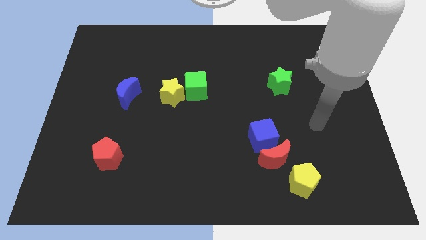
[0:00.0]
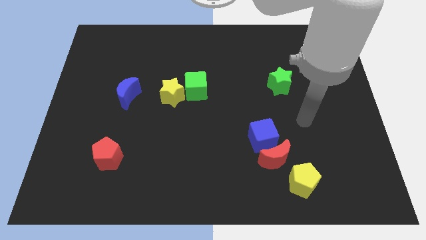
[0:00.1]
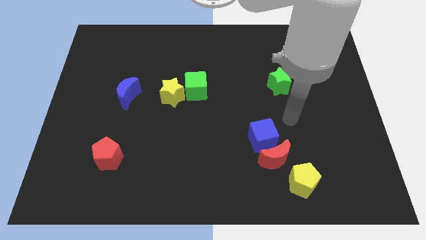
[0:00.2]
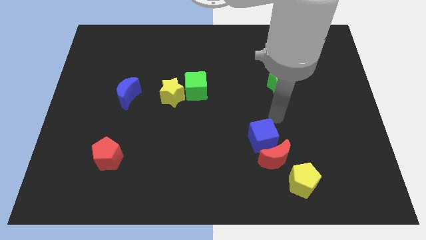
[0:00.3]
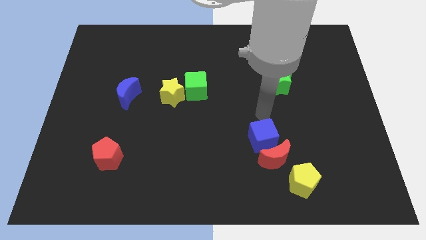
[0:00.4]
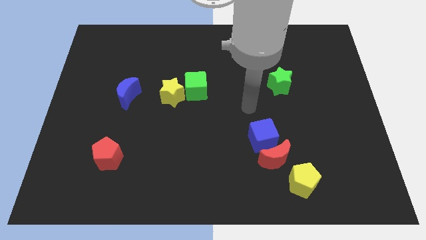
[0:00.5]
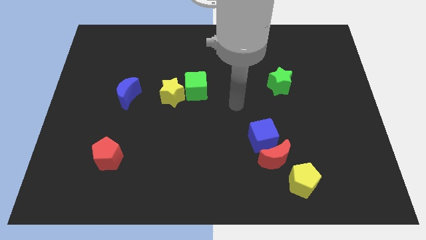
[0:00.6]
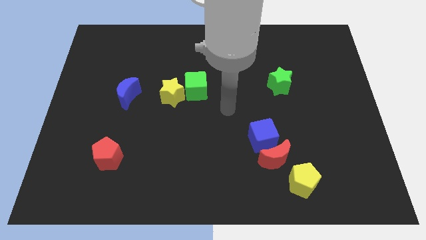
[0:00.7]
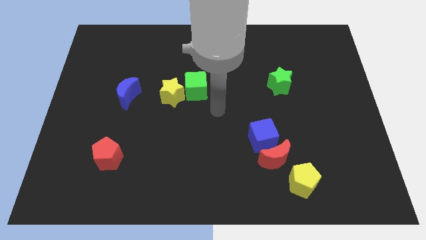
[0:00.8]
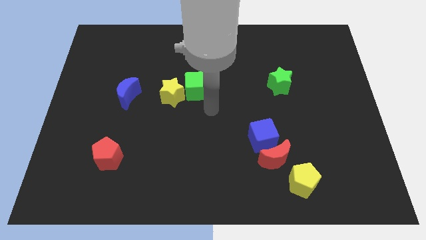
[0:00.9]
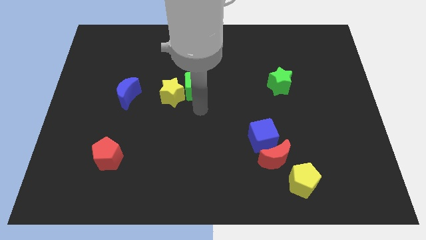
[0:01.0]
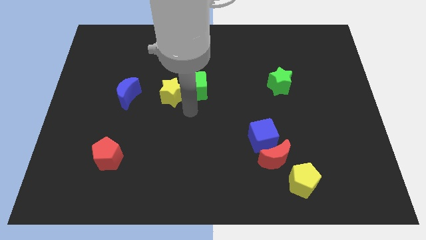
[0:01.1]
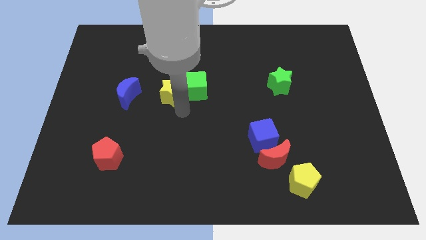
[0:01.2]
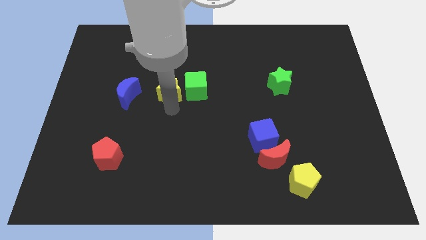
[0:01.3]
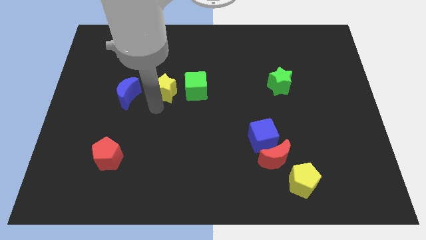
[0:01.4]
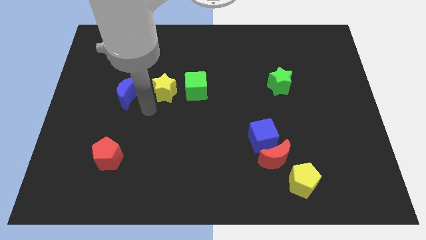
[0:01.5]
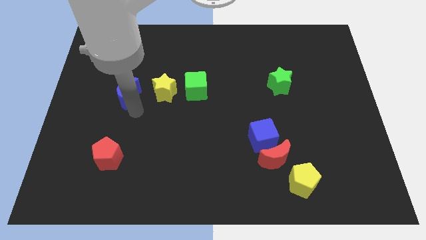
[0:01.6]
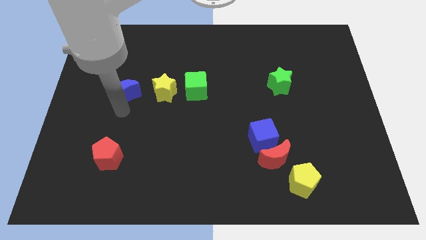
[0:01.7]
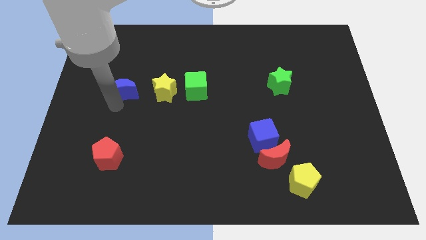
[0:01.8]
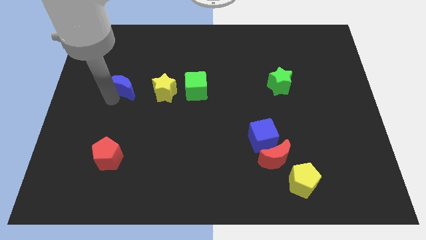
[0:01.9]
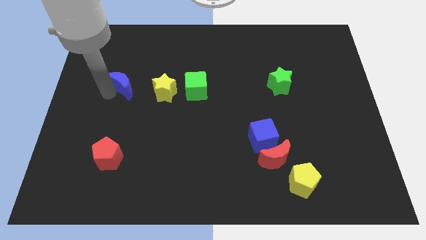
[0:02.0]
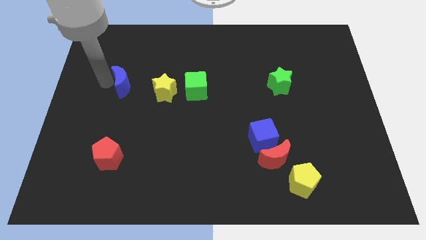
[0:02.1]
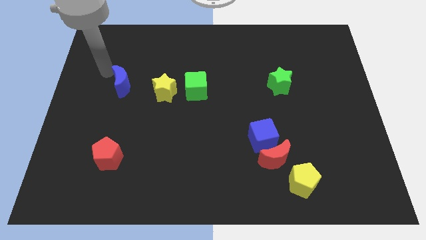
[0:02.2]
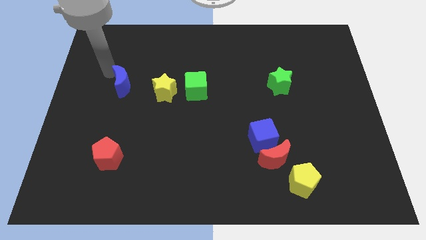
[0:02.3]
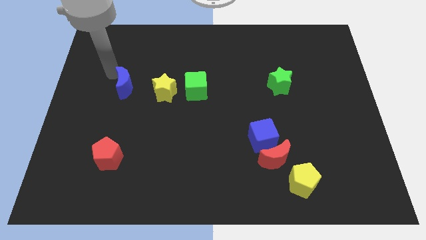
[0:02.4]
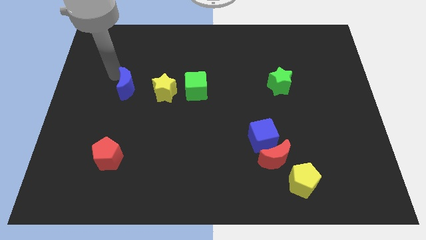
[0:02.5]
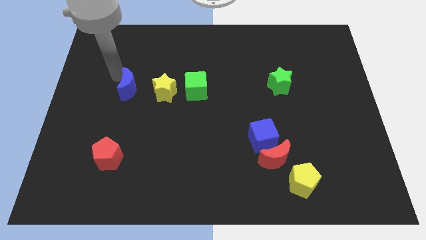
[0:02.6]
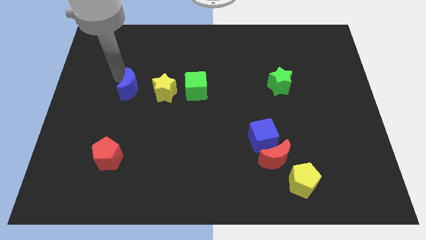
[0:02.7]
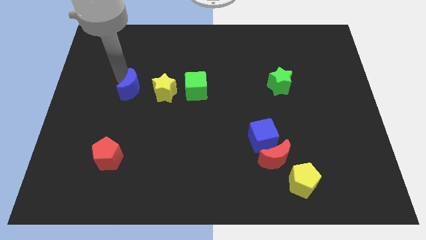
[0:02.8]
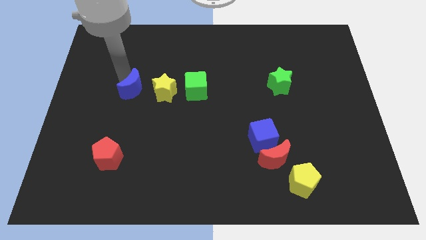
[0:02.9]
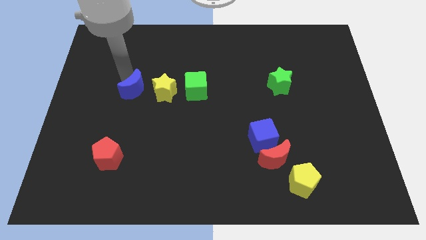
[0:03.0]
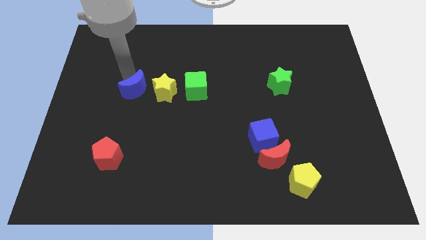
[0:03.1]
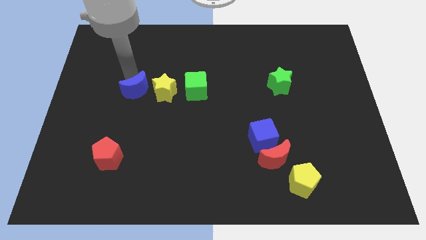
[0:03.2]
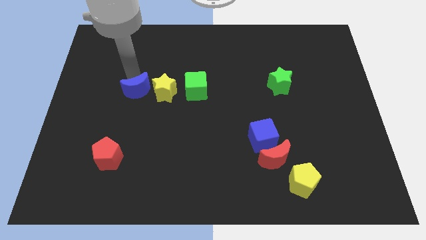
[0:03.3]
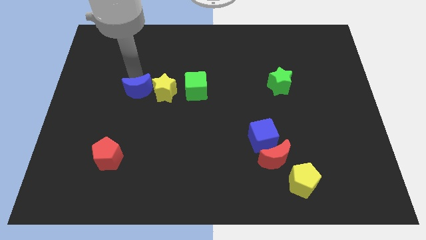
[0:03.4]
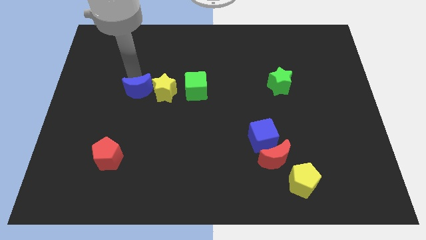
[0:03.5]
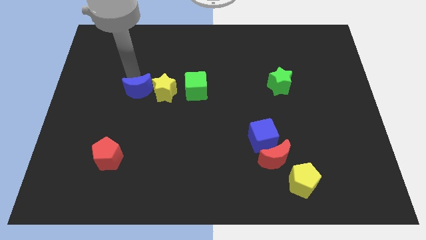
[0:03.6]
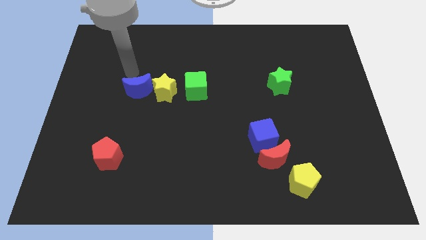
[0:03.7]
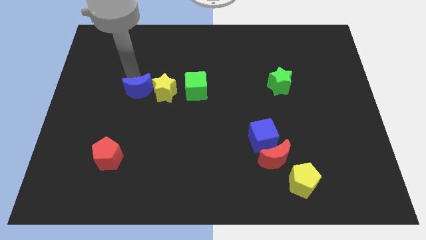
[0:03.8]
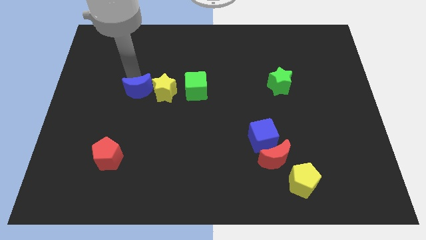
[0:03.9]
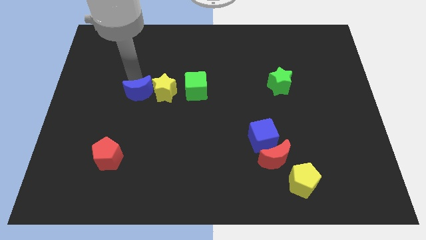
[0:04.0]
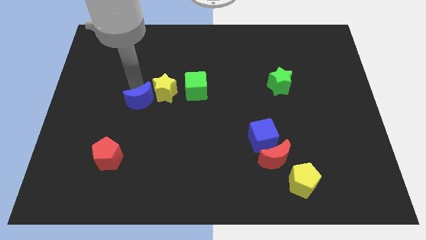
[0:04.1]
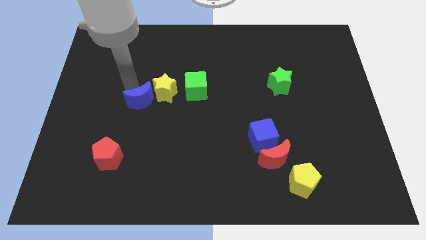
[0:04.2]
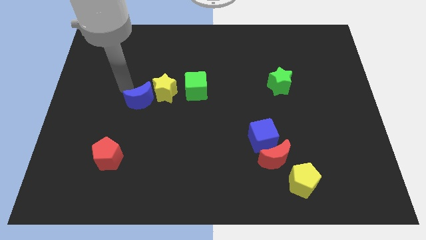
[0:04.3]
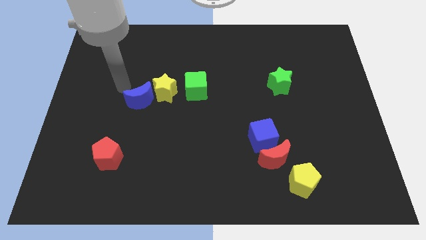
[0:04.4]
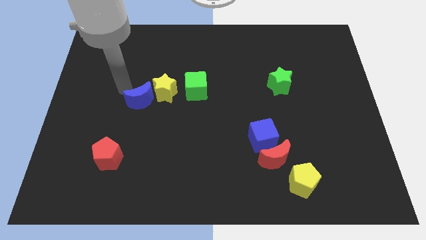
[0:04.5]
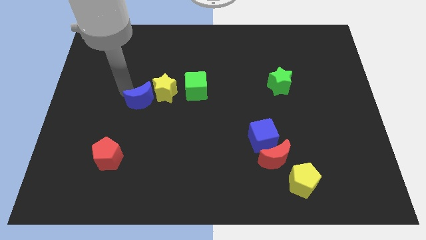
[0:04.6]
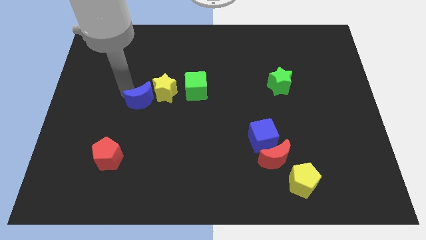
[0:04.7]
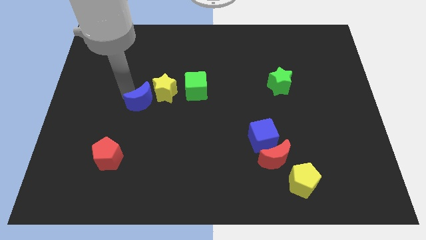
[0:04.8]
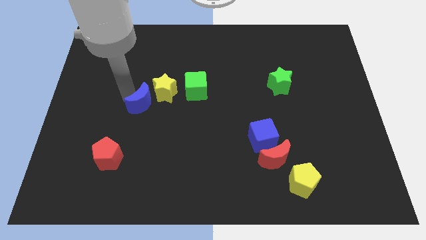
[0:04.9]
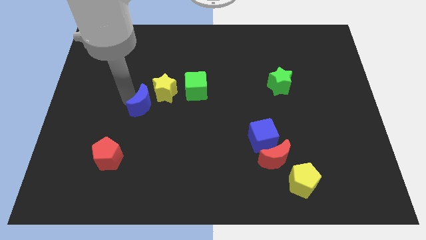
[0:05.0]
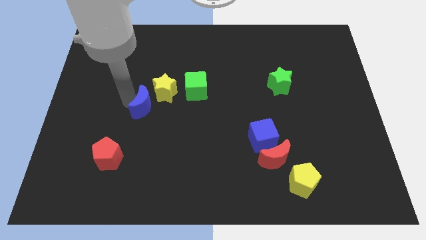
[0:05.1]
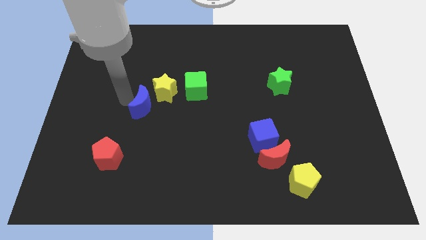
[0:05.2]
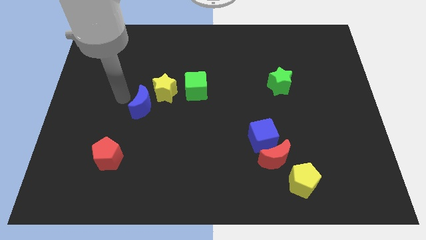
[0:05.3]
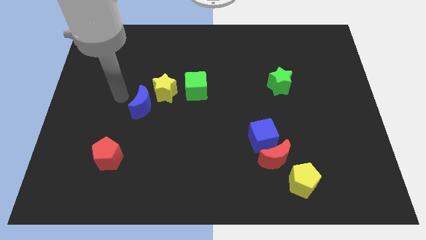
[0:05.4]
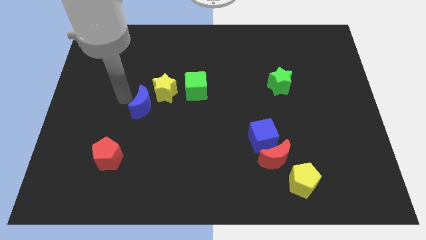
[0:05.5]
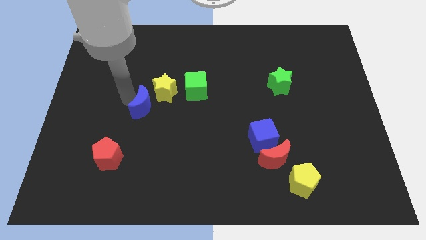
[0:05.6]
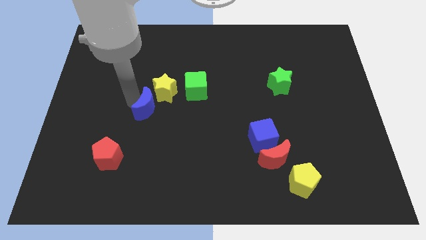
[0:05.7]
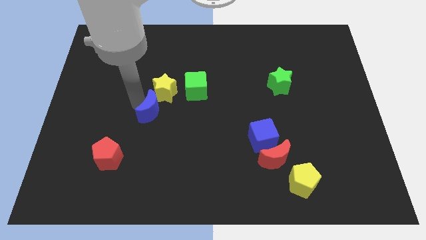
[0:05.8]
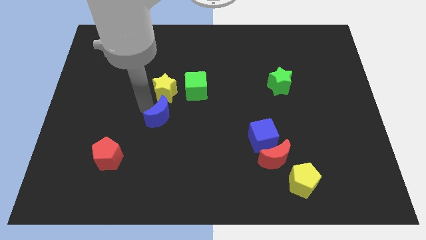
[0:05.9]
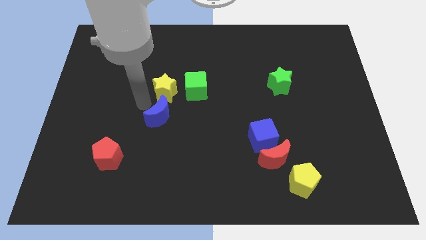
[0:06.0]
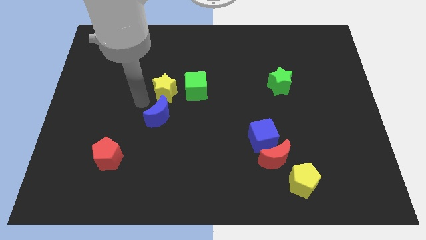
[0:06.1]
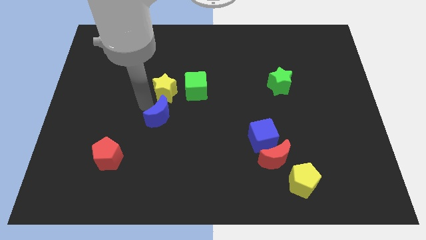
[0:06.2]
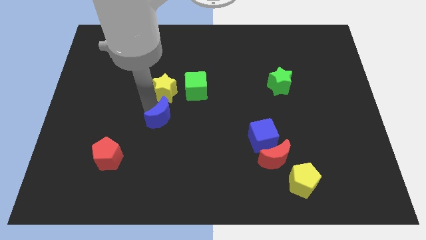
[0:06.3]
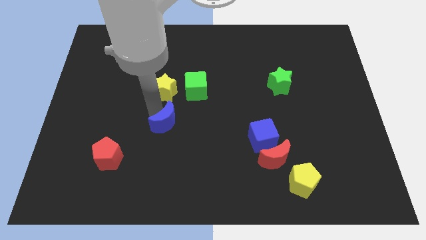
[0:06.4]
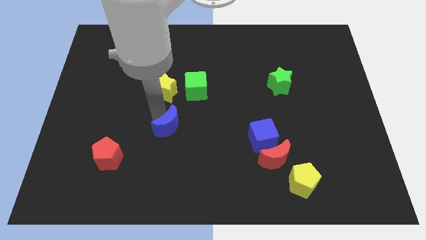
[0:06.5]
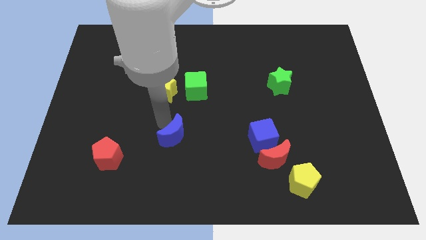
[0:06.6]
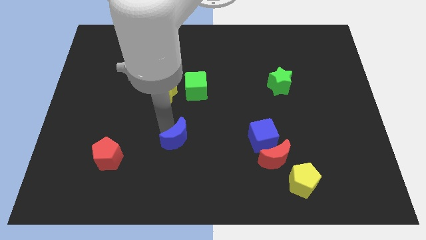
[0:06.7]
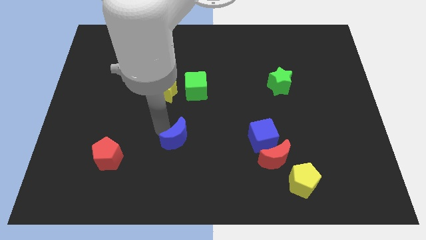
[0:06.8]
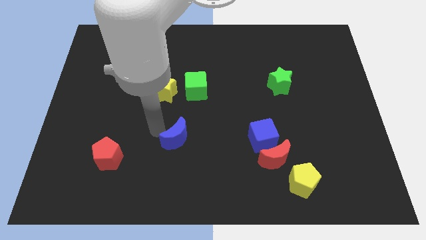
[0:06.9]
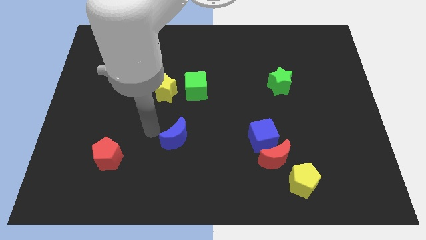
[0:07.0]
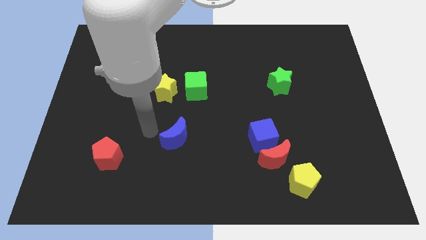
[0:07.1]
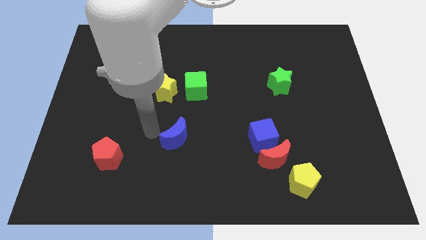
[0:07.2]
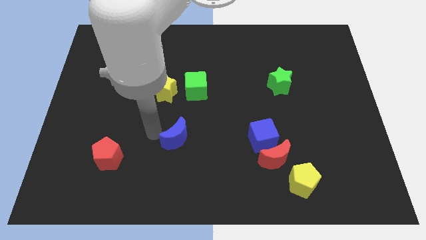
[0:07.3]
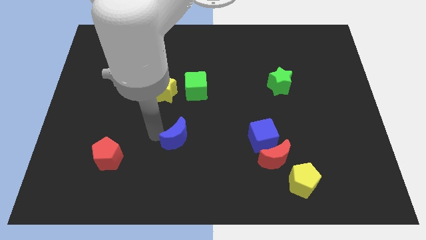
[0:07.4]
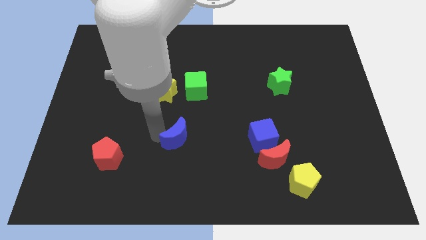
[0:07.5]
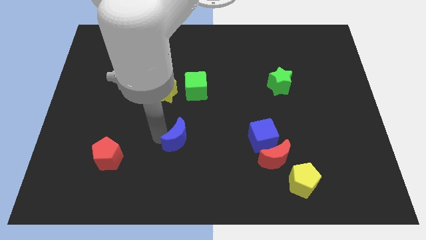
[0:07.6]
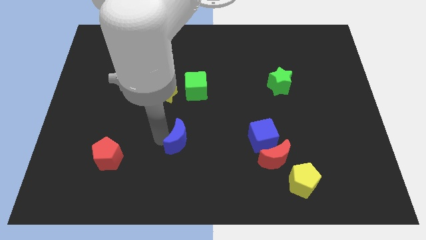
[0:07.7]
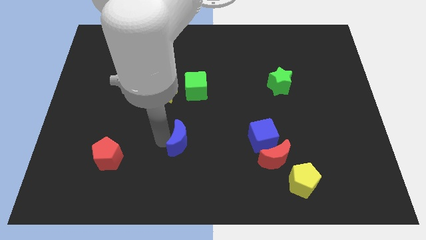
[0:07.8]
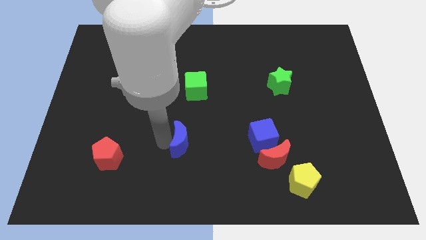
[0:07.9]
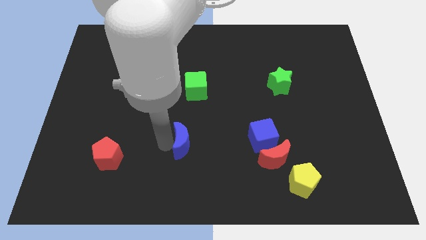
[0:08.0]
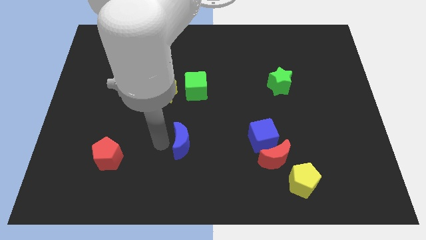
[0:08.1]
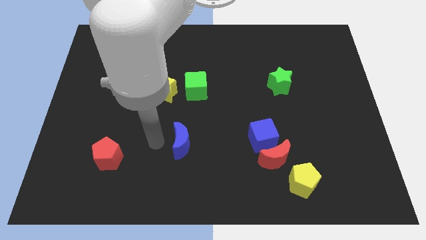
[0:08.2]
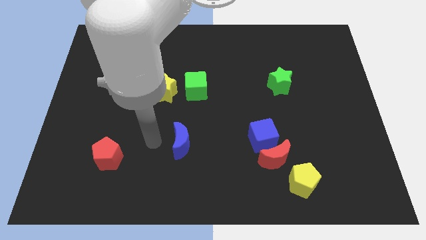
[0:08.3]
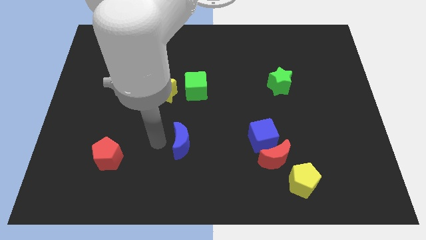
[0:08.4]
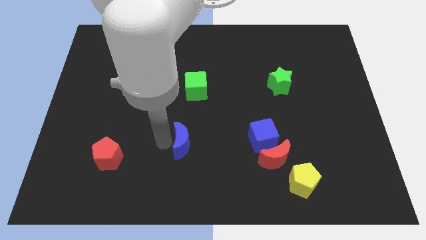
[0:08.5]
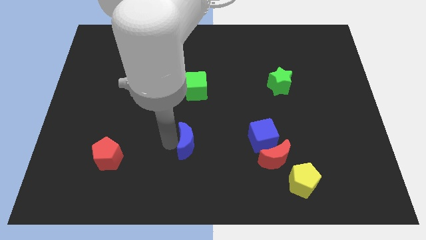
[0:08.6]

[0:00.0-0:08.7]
slide the blue moon diagonally down and to the right
